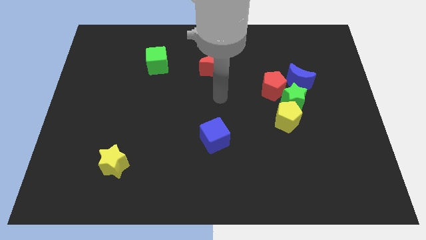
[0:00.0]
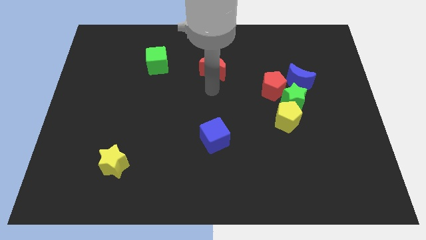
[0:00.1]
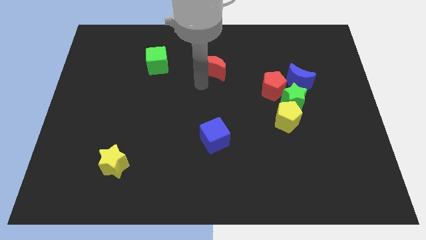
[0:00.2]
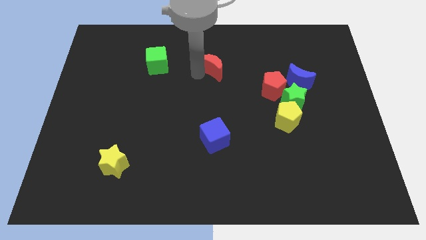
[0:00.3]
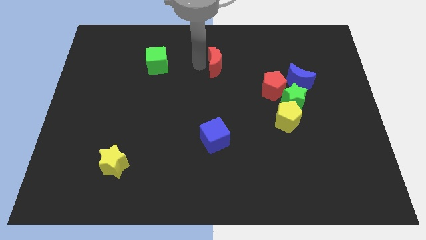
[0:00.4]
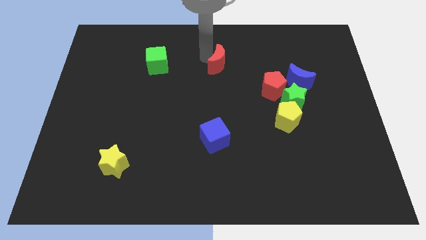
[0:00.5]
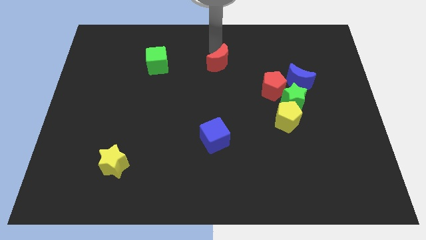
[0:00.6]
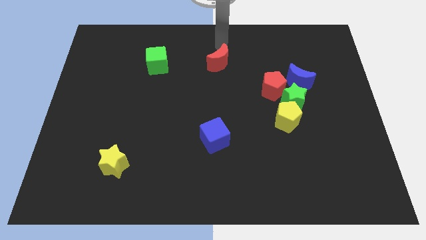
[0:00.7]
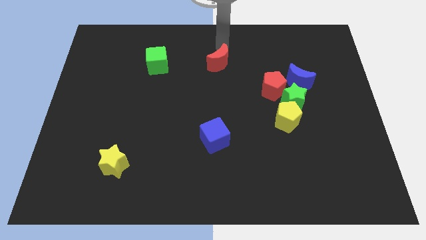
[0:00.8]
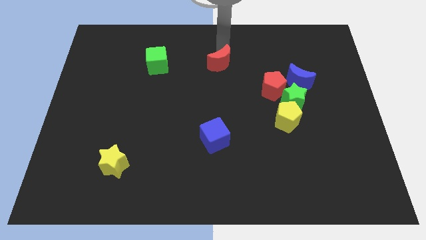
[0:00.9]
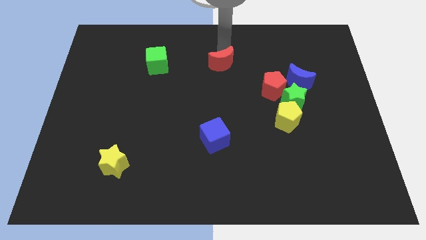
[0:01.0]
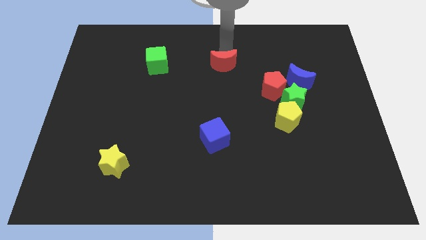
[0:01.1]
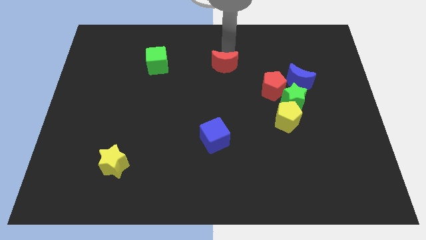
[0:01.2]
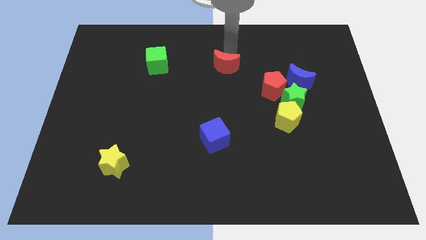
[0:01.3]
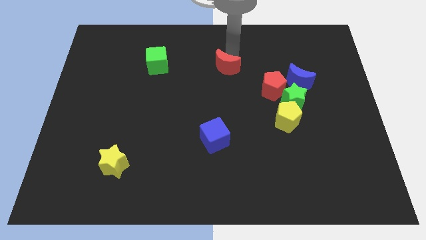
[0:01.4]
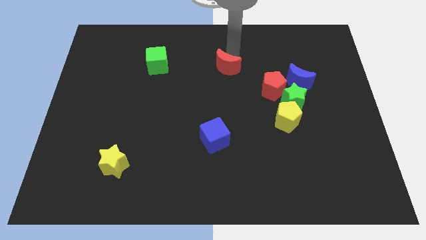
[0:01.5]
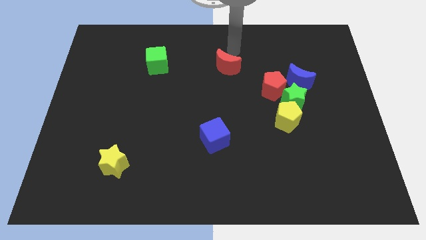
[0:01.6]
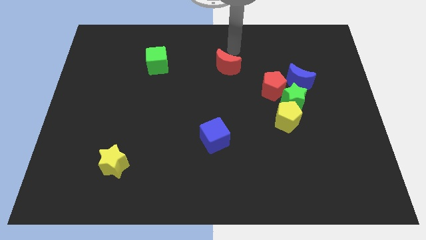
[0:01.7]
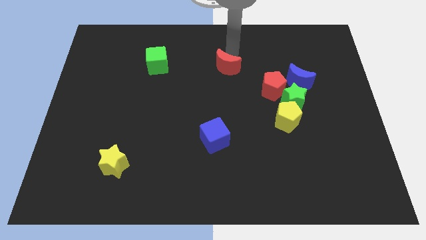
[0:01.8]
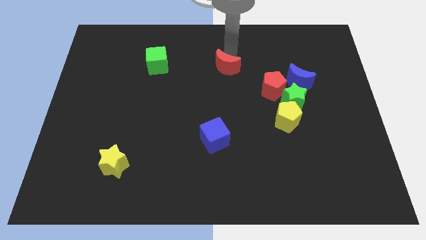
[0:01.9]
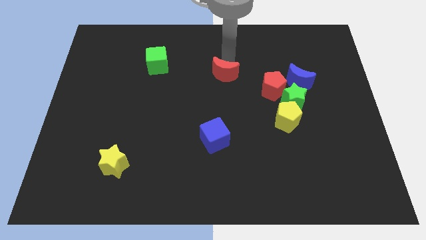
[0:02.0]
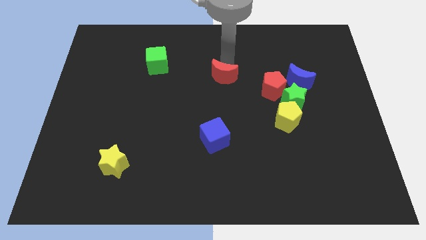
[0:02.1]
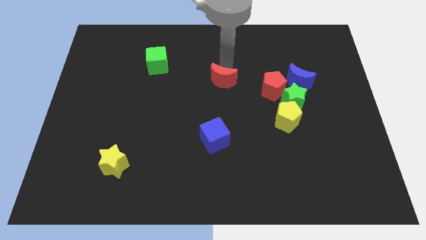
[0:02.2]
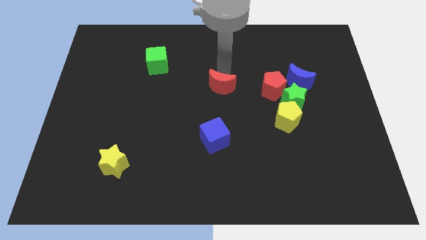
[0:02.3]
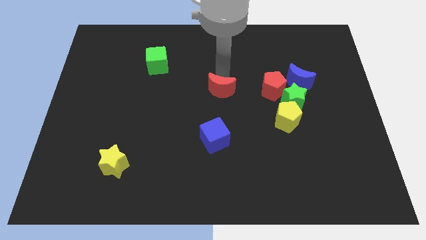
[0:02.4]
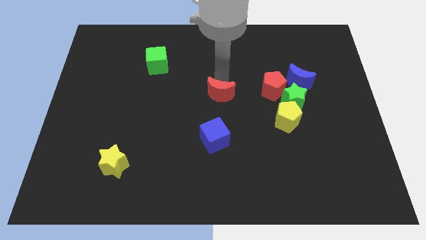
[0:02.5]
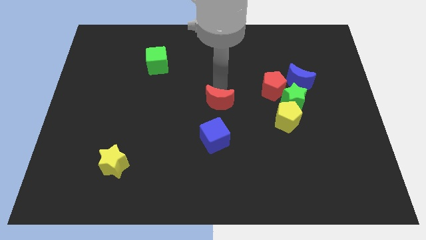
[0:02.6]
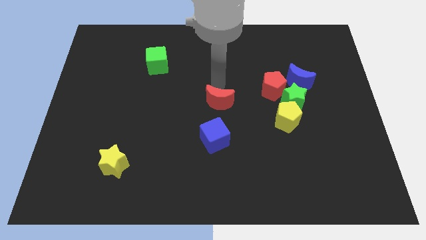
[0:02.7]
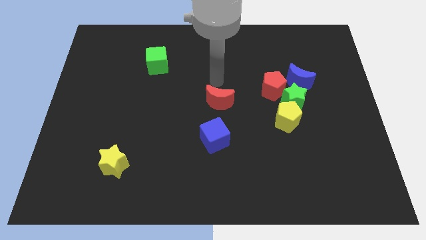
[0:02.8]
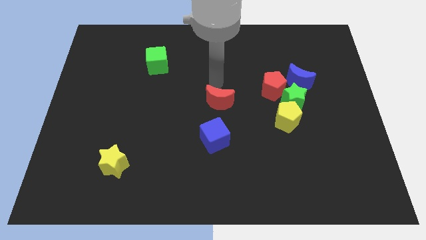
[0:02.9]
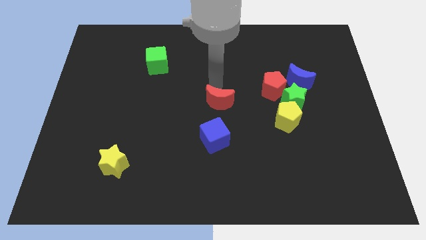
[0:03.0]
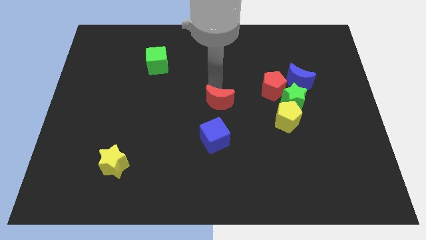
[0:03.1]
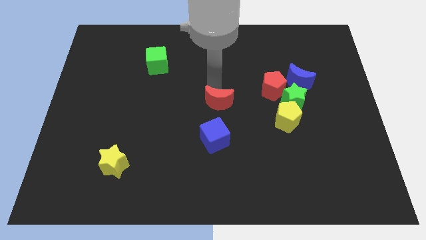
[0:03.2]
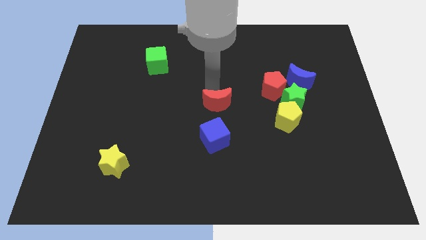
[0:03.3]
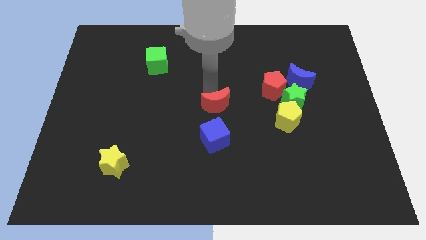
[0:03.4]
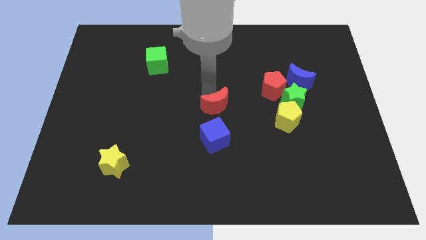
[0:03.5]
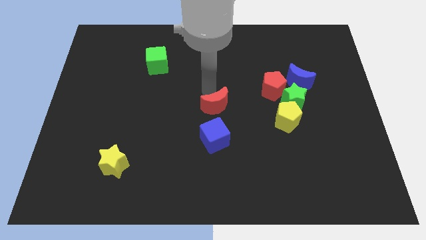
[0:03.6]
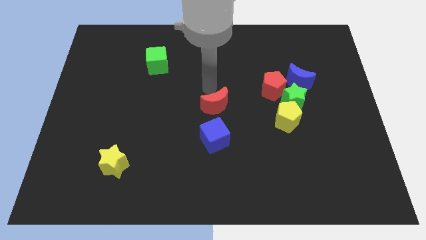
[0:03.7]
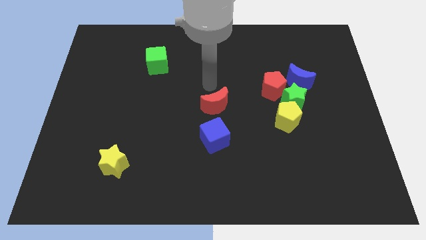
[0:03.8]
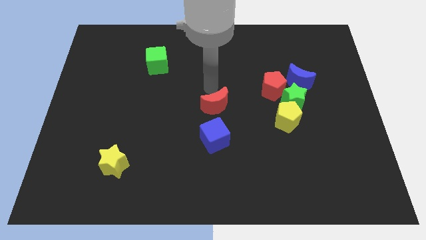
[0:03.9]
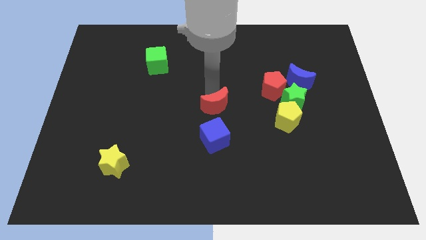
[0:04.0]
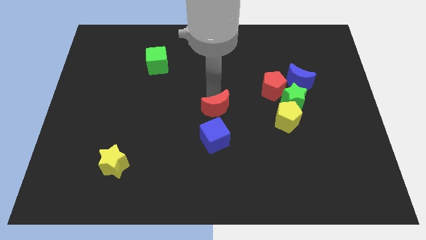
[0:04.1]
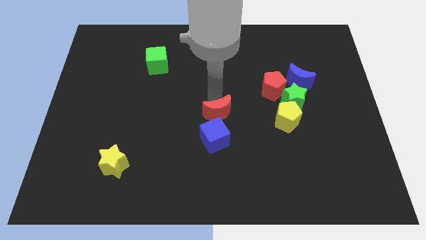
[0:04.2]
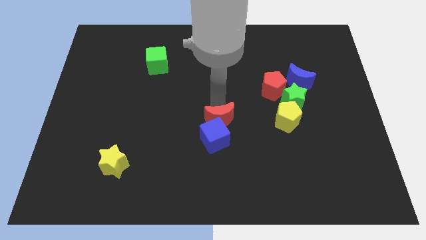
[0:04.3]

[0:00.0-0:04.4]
push the red moon close to the blue cube

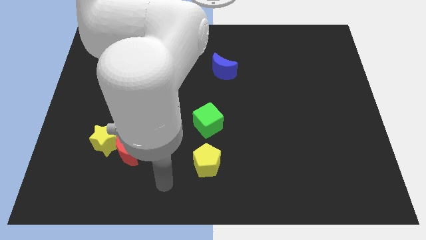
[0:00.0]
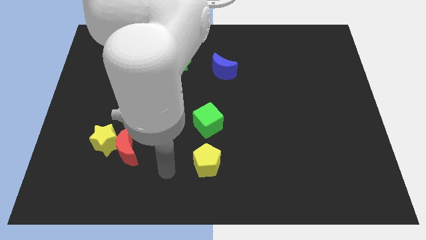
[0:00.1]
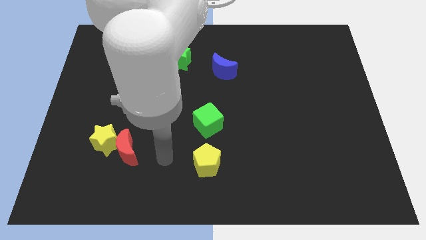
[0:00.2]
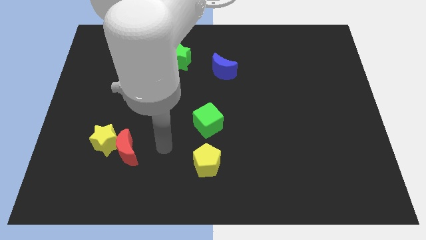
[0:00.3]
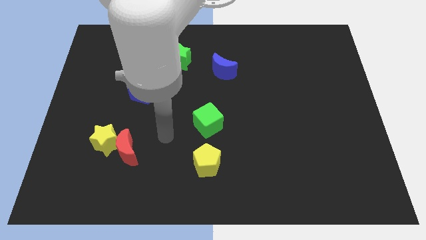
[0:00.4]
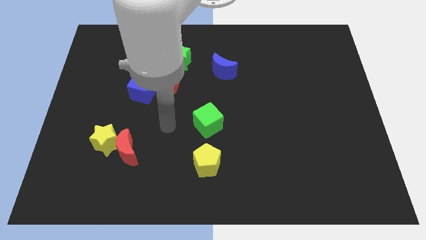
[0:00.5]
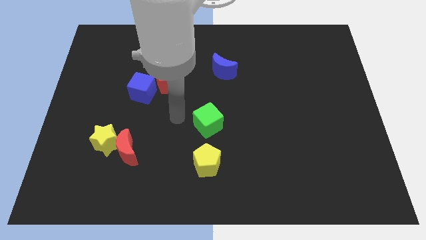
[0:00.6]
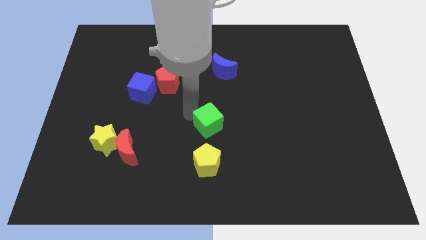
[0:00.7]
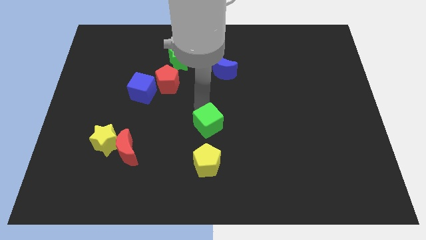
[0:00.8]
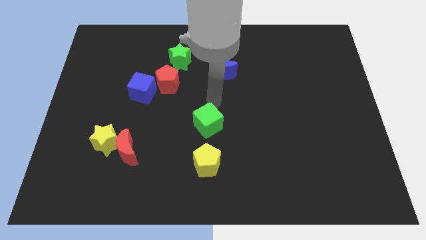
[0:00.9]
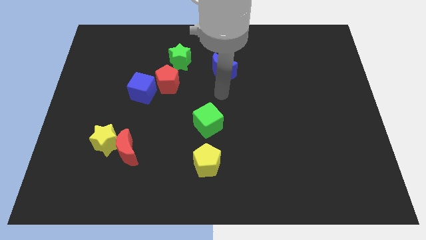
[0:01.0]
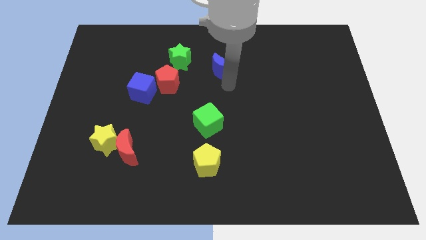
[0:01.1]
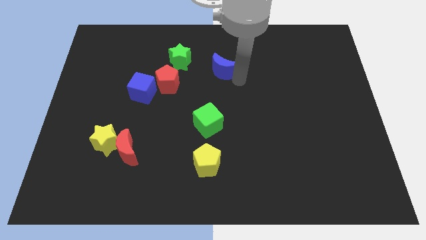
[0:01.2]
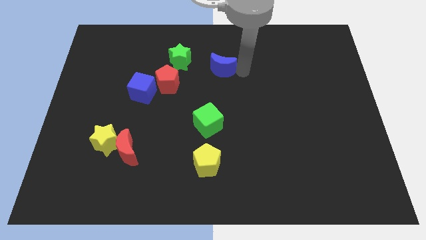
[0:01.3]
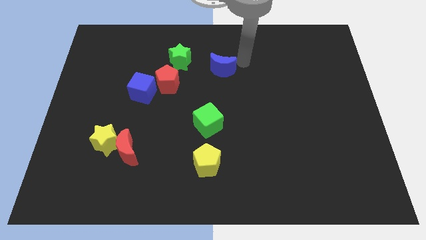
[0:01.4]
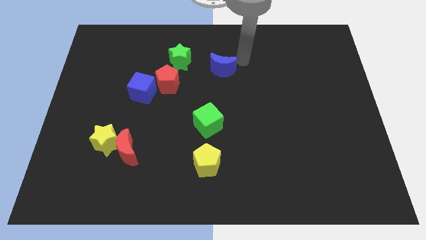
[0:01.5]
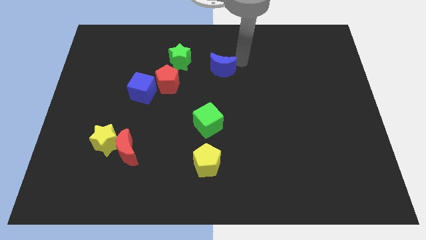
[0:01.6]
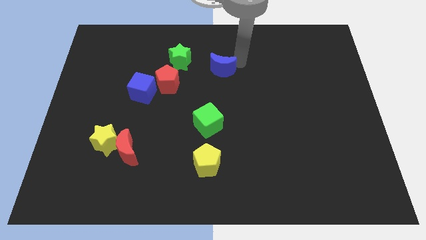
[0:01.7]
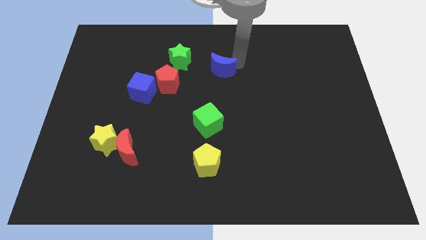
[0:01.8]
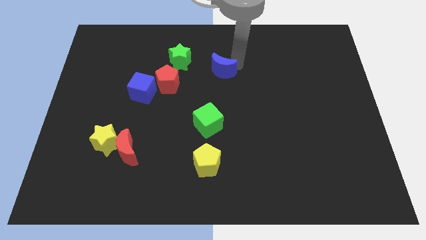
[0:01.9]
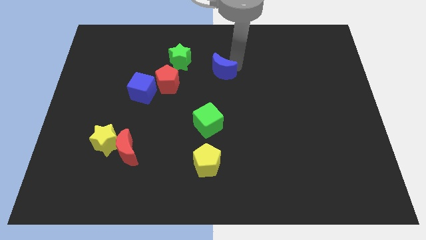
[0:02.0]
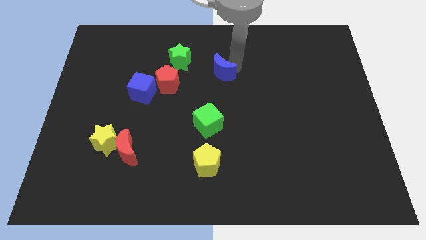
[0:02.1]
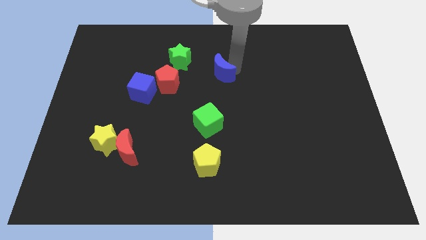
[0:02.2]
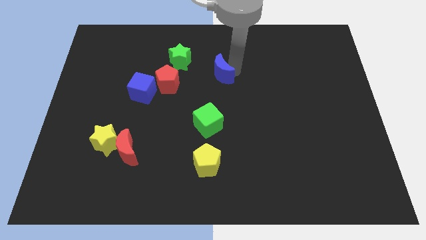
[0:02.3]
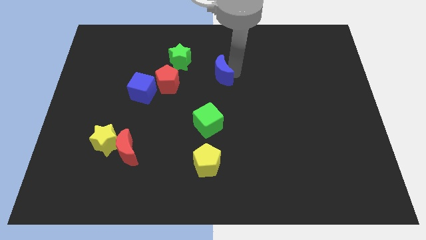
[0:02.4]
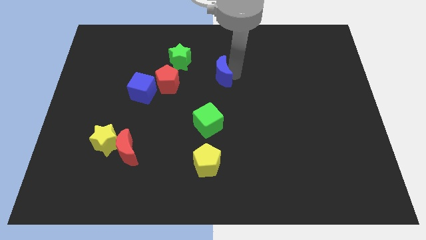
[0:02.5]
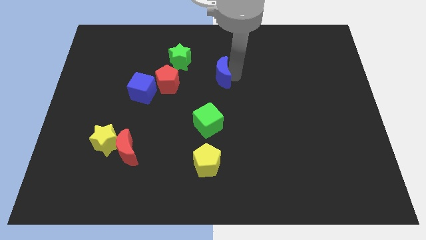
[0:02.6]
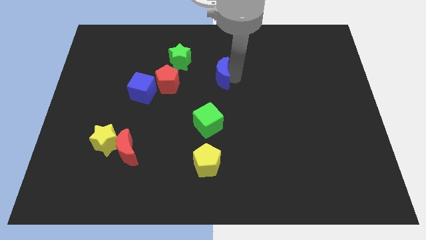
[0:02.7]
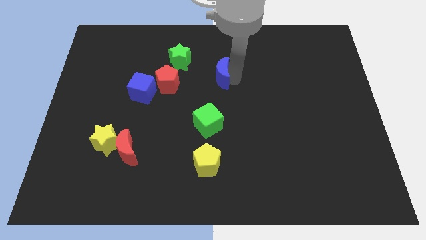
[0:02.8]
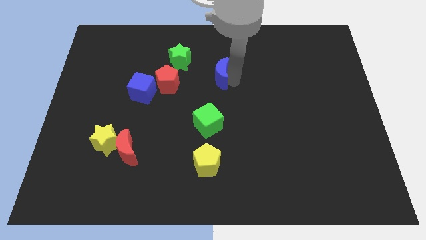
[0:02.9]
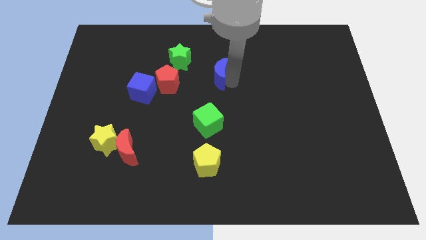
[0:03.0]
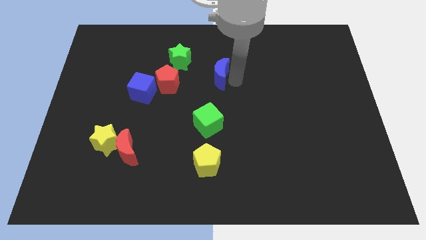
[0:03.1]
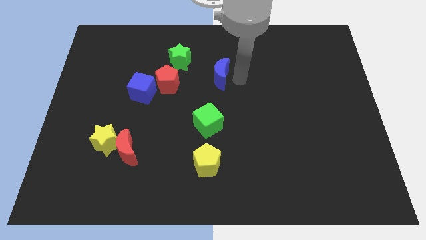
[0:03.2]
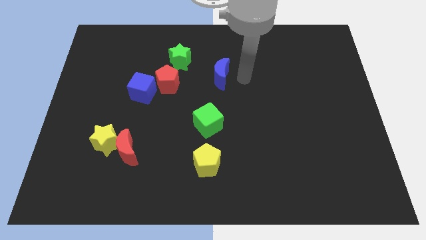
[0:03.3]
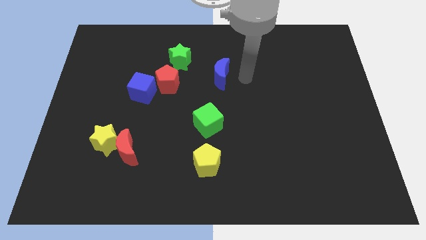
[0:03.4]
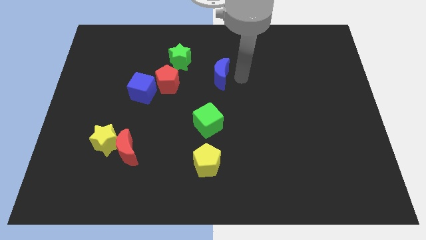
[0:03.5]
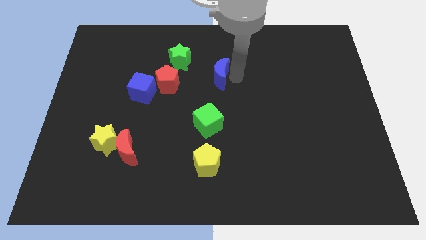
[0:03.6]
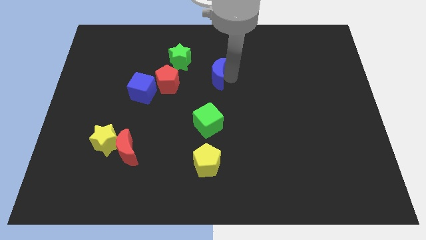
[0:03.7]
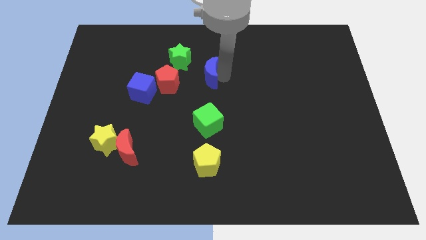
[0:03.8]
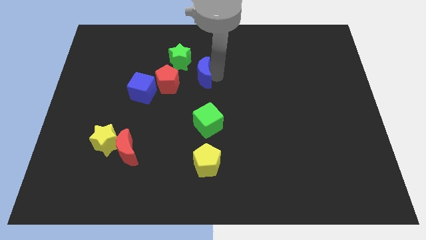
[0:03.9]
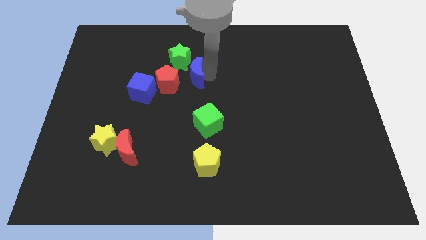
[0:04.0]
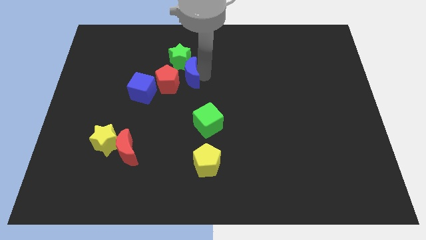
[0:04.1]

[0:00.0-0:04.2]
push the blue moon close to the red pentagon
